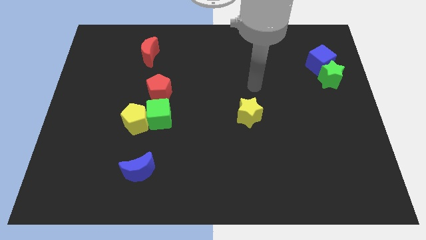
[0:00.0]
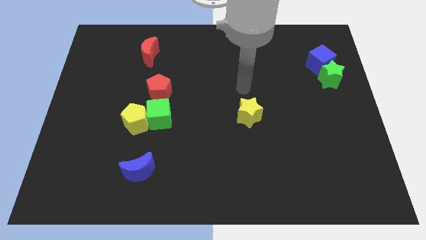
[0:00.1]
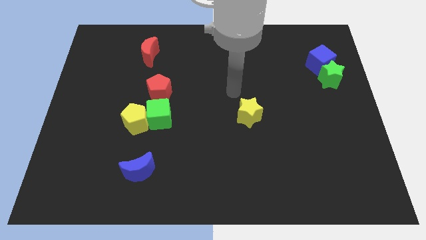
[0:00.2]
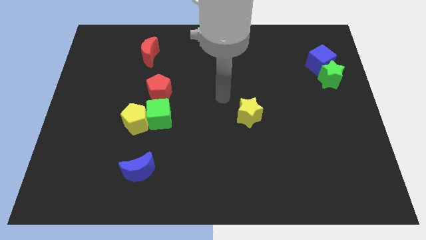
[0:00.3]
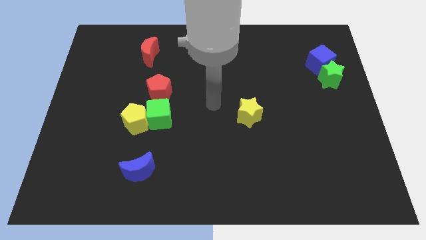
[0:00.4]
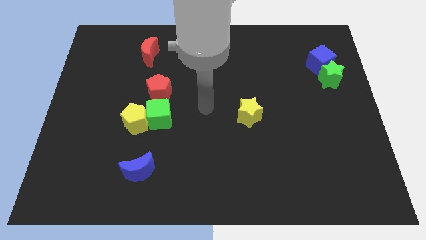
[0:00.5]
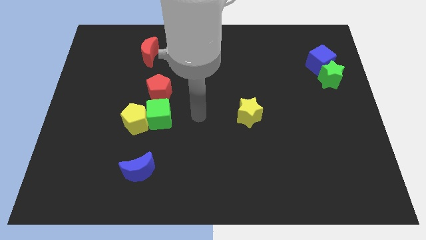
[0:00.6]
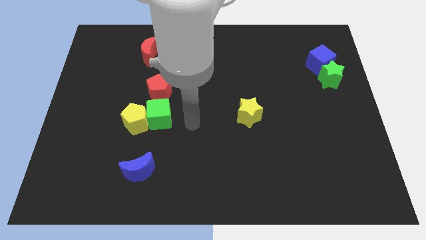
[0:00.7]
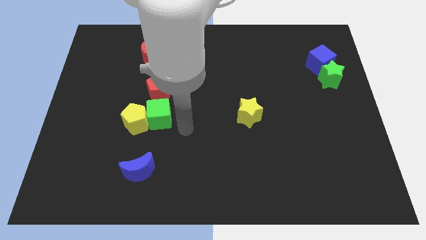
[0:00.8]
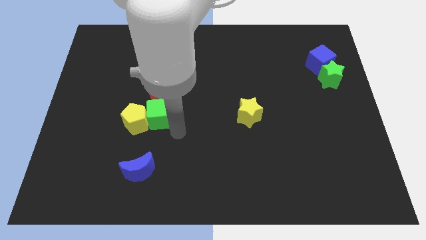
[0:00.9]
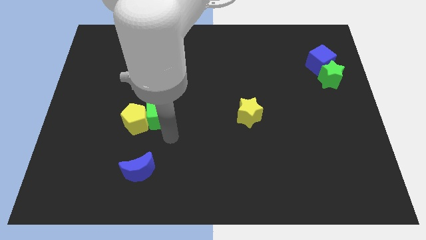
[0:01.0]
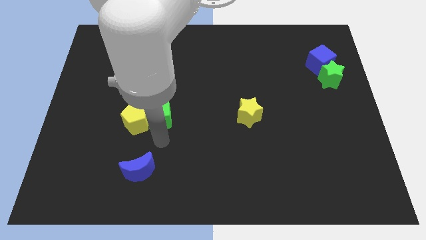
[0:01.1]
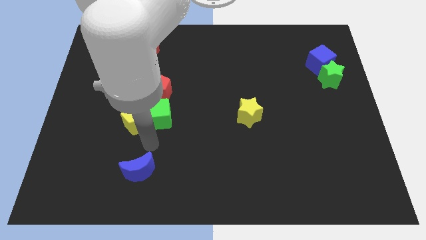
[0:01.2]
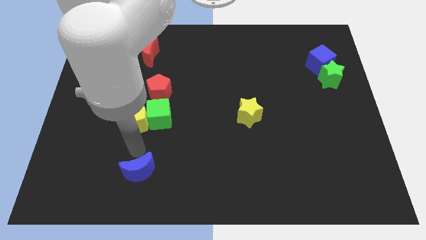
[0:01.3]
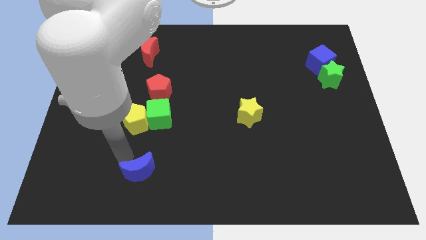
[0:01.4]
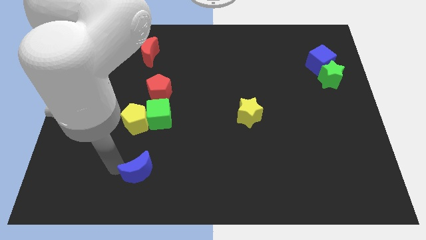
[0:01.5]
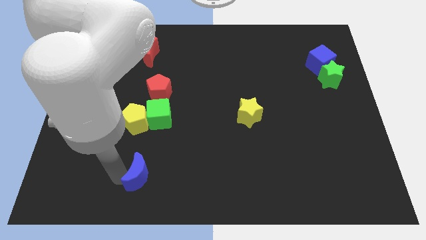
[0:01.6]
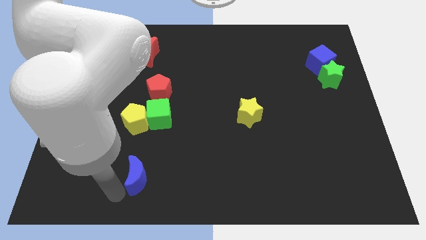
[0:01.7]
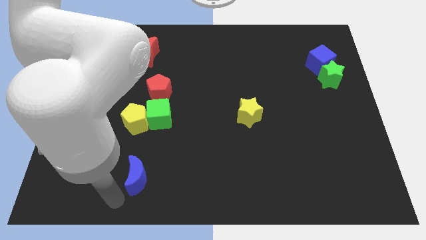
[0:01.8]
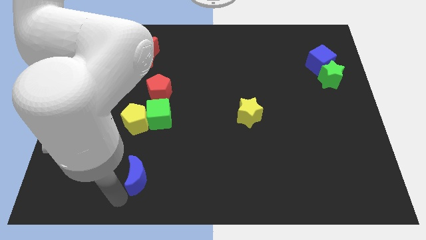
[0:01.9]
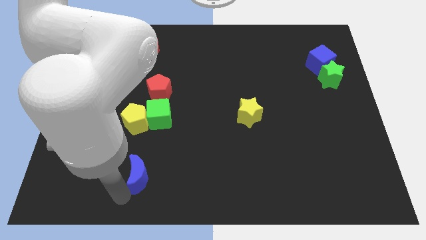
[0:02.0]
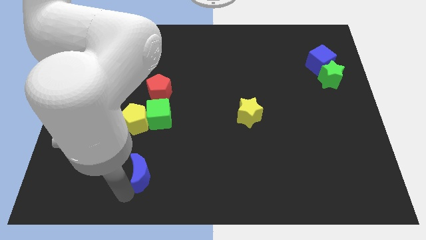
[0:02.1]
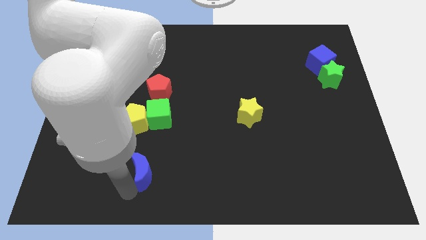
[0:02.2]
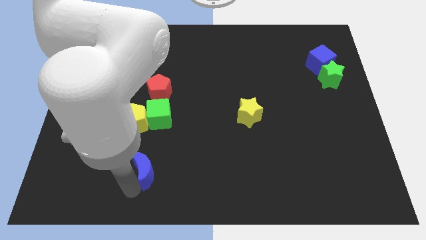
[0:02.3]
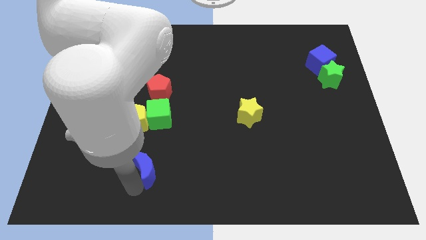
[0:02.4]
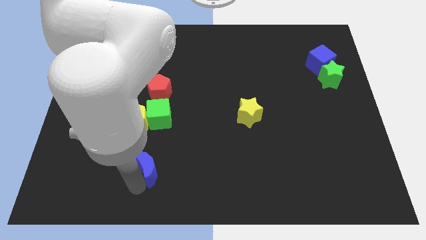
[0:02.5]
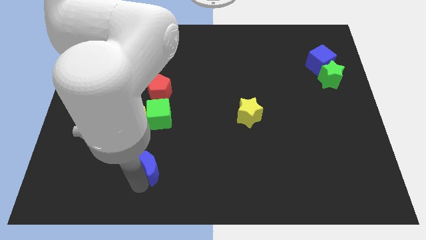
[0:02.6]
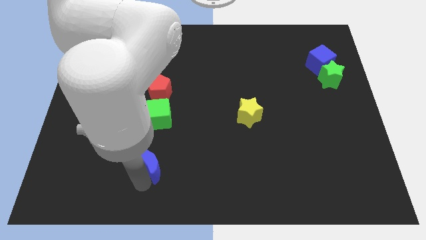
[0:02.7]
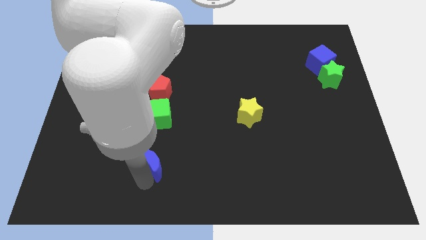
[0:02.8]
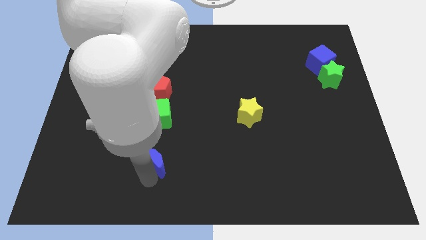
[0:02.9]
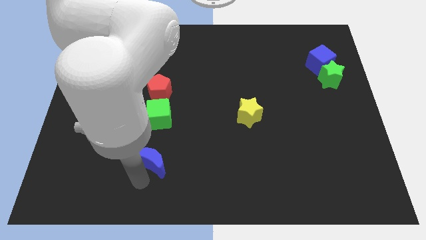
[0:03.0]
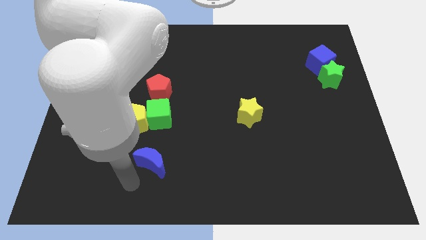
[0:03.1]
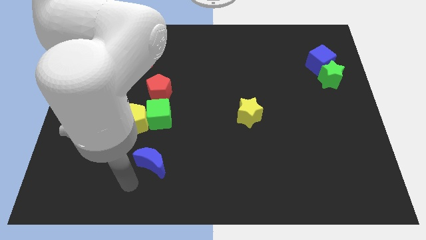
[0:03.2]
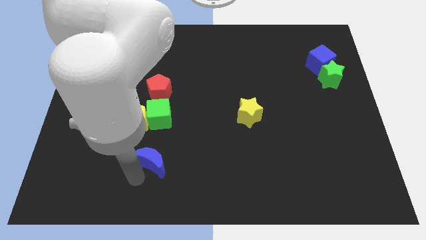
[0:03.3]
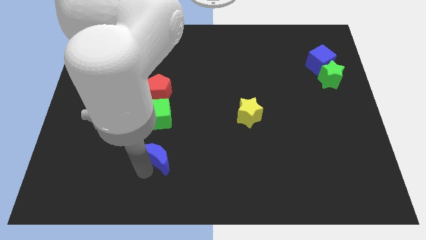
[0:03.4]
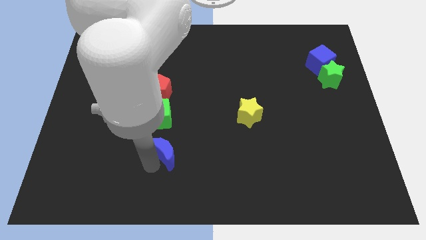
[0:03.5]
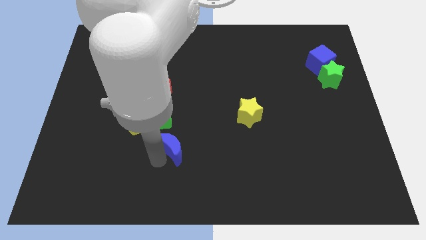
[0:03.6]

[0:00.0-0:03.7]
slightly push the blue moon up and then to the right

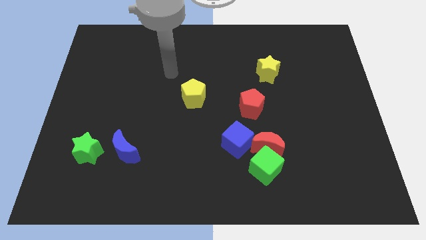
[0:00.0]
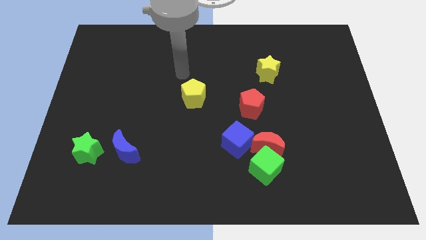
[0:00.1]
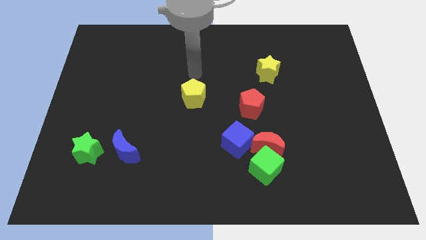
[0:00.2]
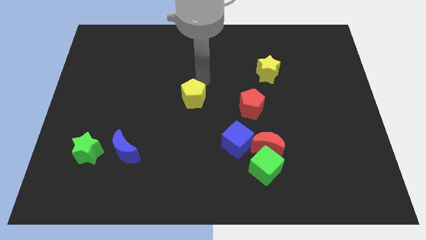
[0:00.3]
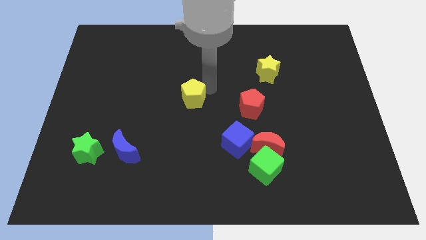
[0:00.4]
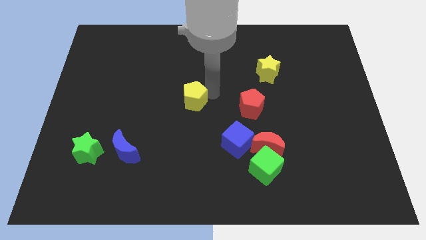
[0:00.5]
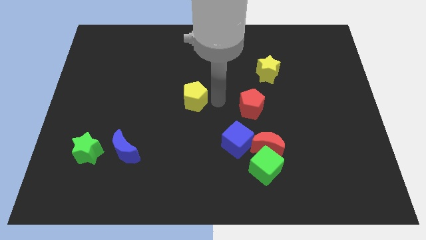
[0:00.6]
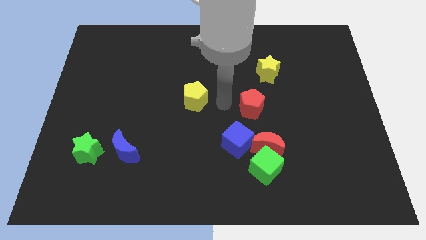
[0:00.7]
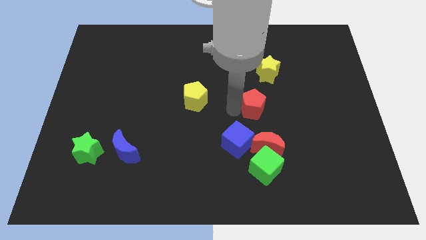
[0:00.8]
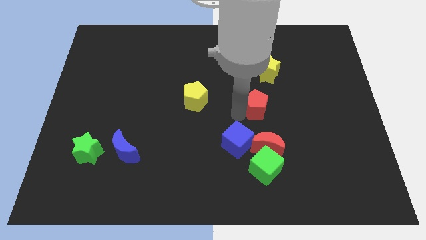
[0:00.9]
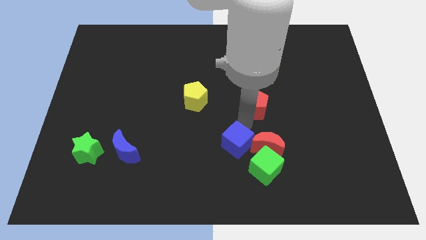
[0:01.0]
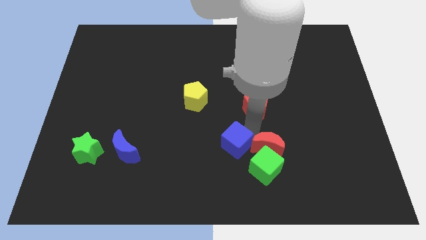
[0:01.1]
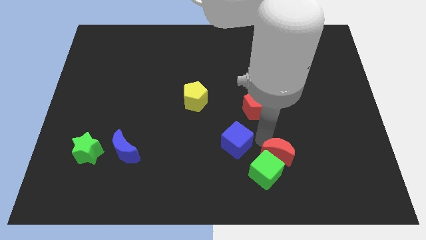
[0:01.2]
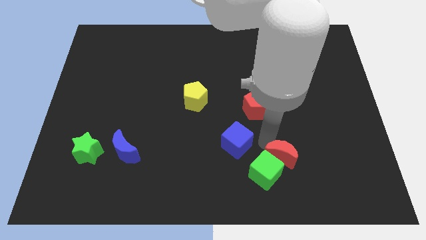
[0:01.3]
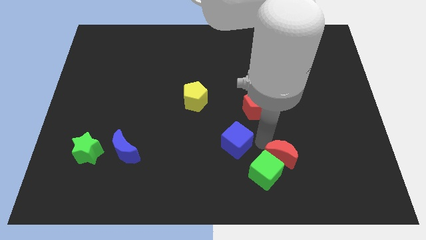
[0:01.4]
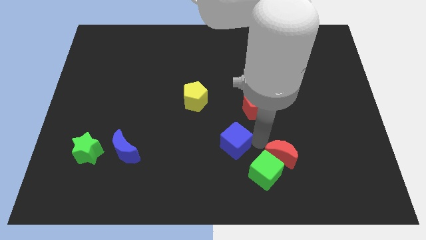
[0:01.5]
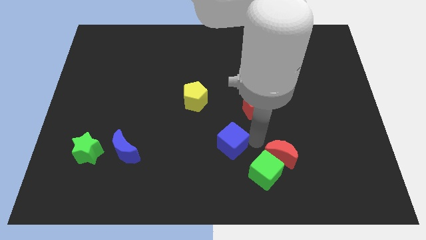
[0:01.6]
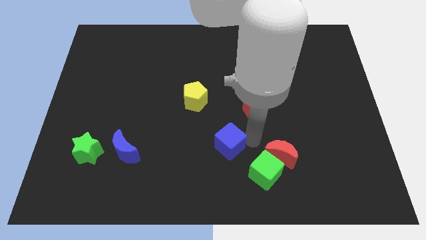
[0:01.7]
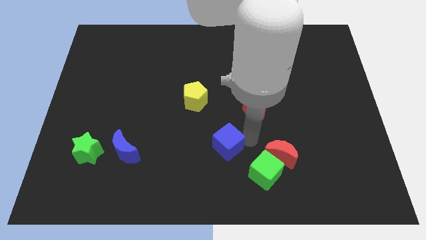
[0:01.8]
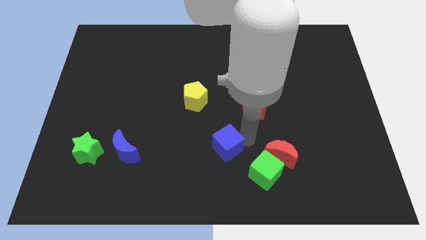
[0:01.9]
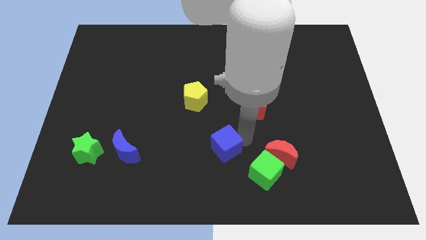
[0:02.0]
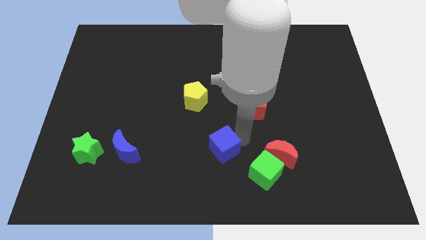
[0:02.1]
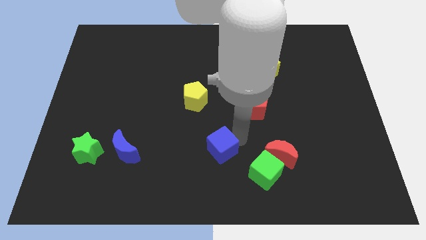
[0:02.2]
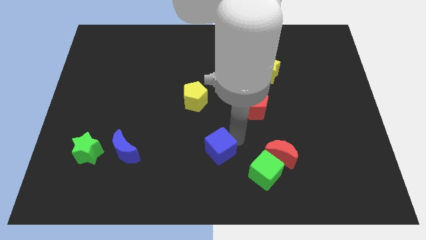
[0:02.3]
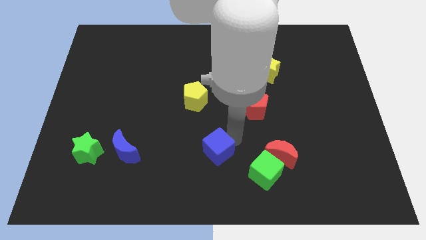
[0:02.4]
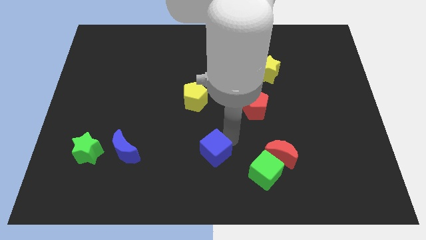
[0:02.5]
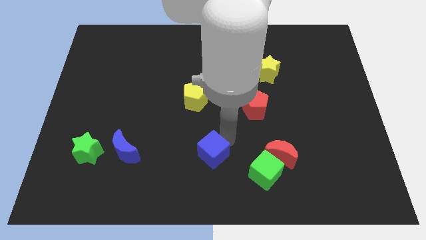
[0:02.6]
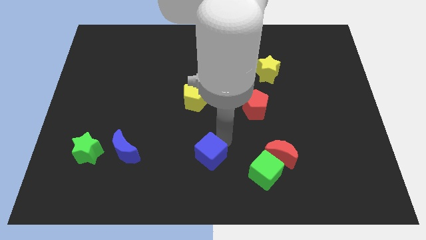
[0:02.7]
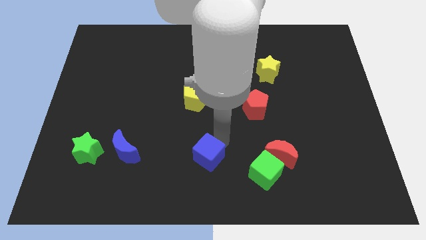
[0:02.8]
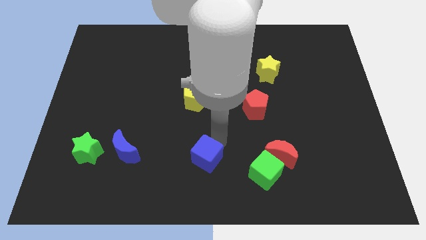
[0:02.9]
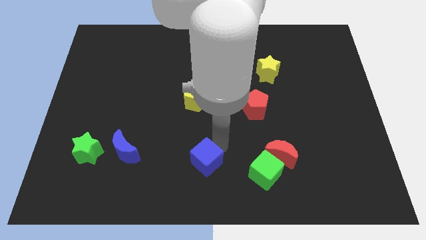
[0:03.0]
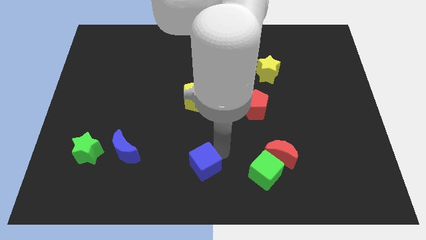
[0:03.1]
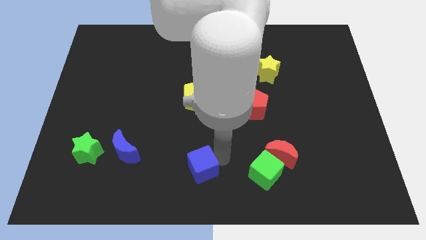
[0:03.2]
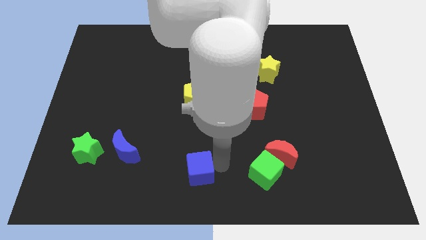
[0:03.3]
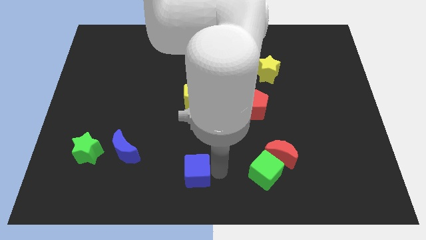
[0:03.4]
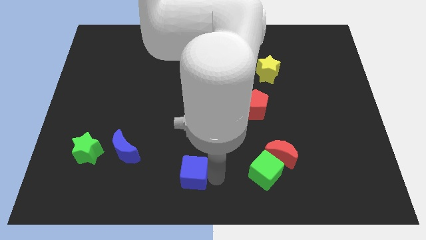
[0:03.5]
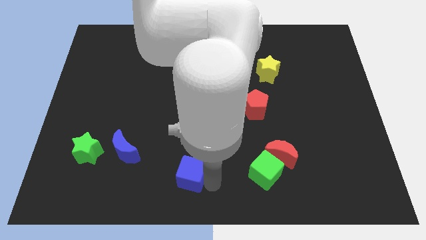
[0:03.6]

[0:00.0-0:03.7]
slightly move the blue cube to the left

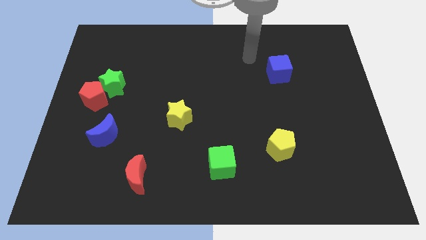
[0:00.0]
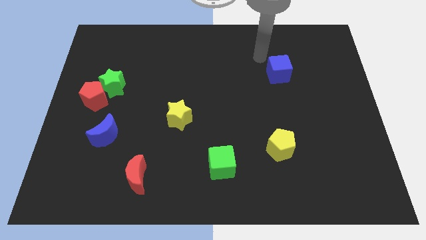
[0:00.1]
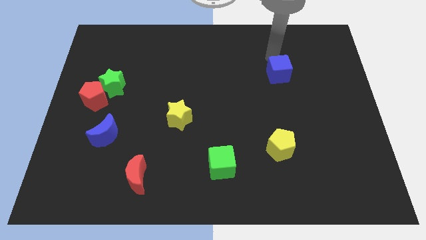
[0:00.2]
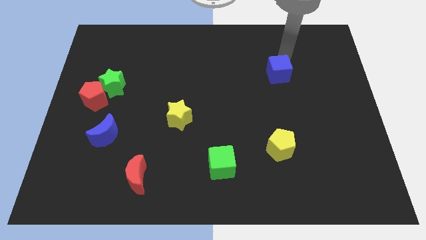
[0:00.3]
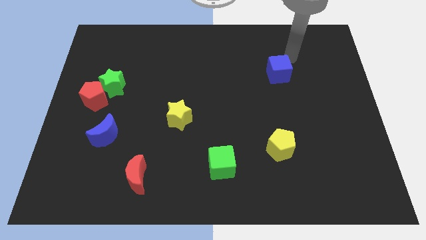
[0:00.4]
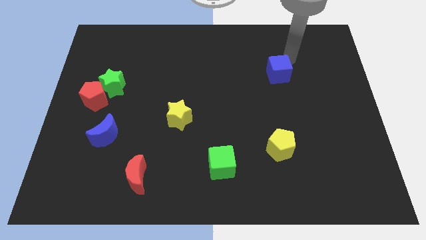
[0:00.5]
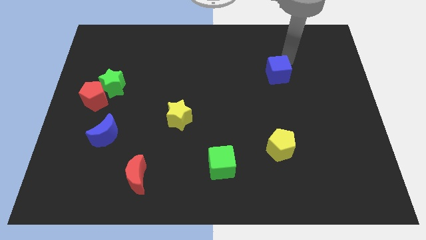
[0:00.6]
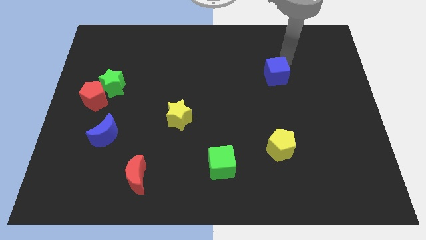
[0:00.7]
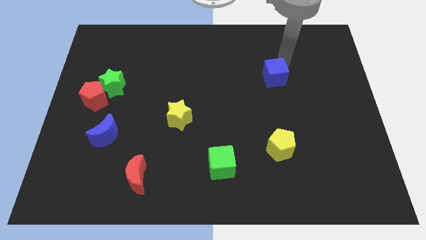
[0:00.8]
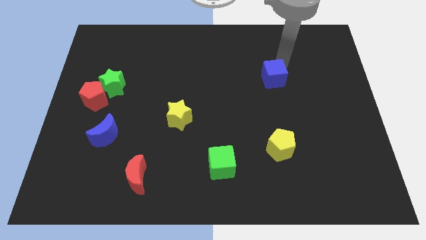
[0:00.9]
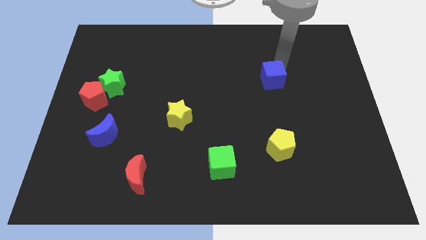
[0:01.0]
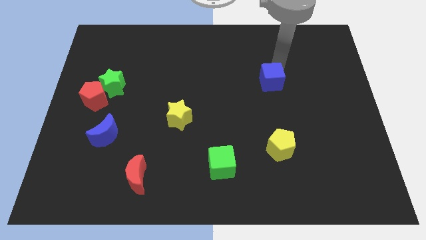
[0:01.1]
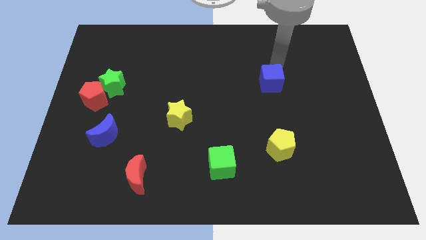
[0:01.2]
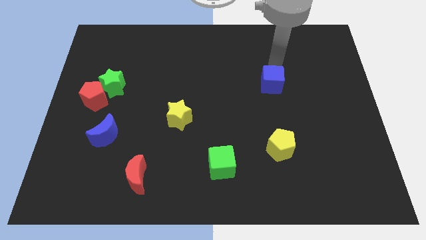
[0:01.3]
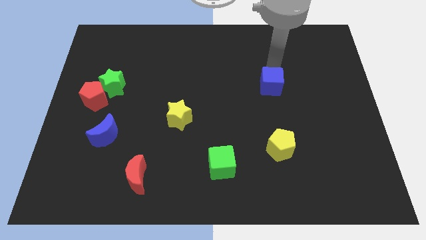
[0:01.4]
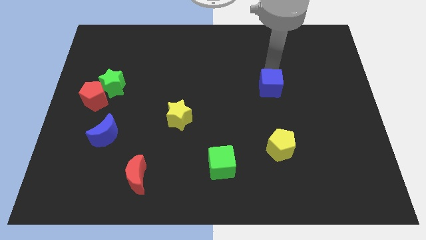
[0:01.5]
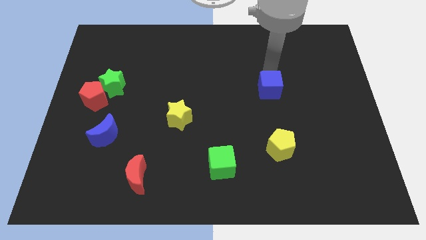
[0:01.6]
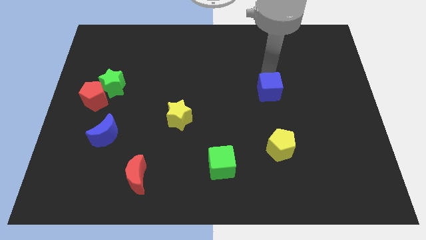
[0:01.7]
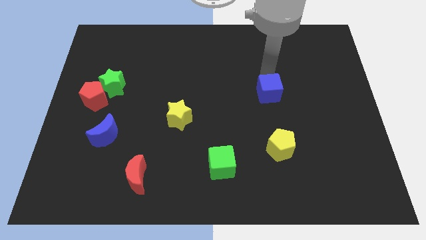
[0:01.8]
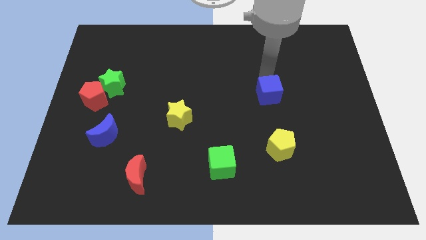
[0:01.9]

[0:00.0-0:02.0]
move the blue cube downwards and left diagonally slightly
